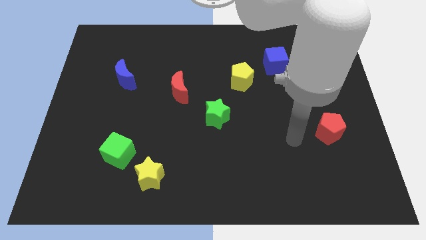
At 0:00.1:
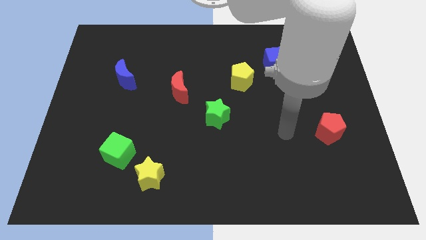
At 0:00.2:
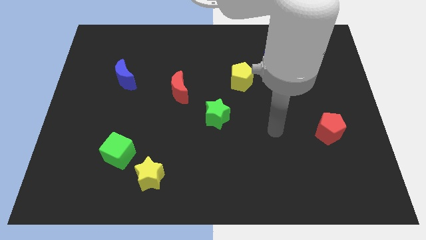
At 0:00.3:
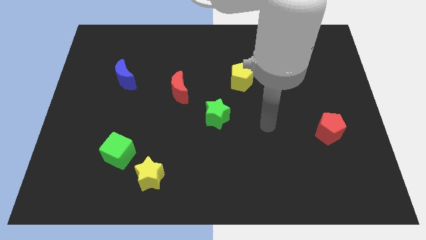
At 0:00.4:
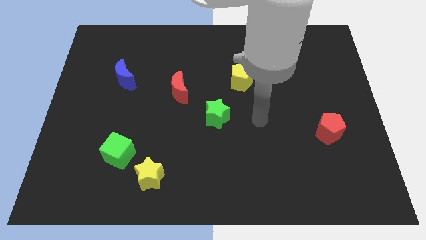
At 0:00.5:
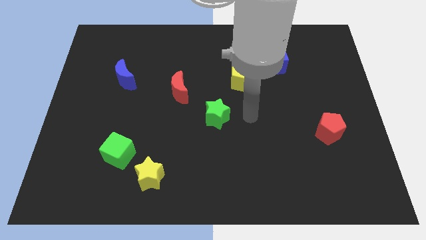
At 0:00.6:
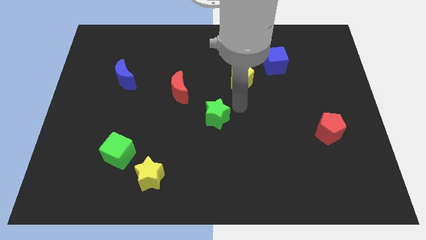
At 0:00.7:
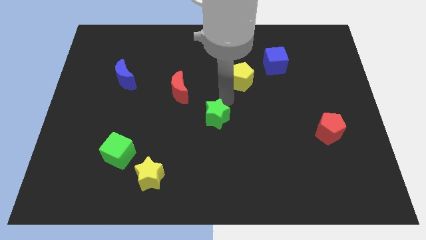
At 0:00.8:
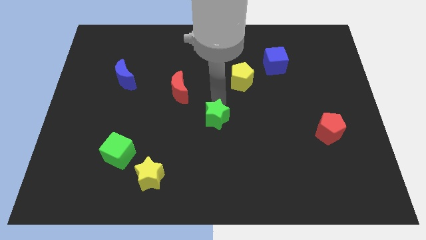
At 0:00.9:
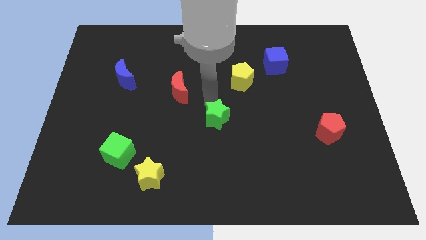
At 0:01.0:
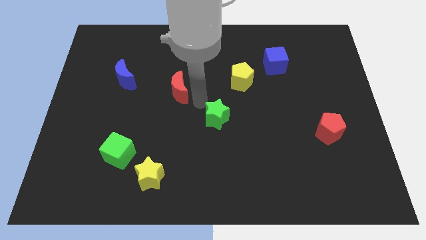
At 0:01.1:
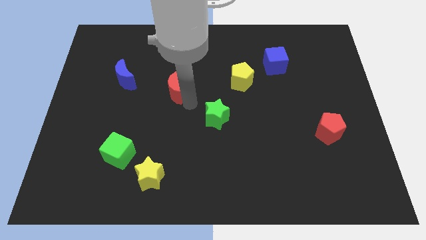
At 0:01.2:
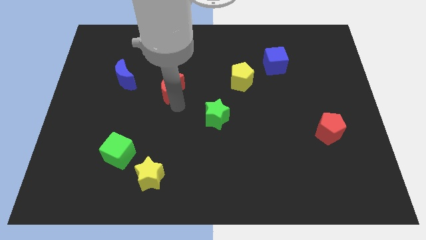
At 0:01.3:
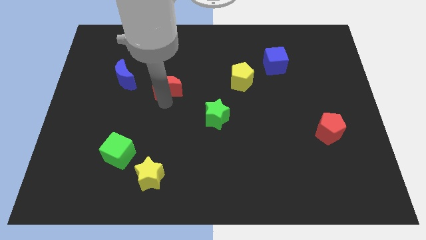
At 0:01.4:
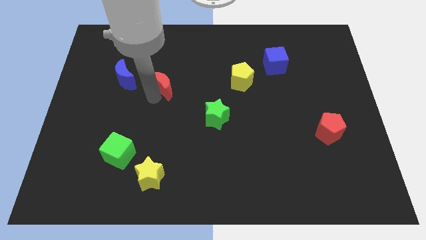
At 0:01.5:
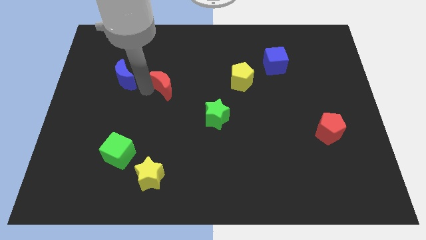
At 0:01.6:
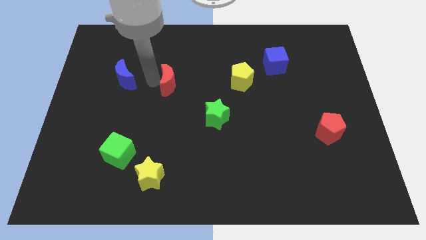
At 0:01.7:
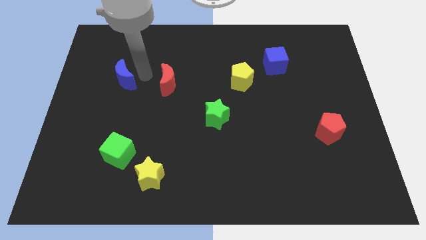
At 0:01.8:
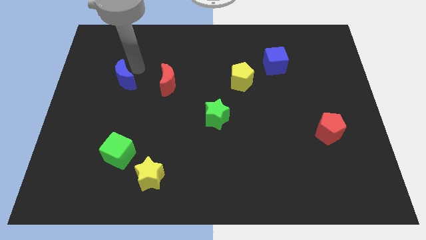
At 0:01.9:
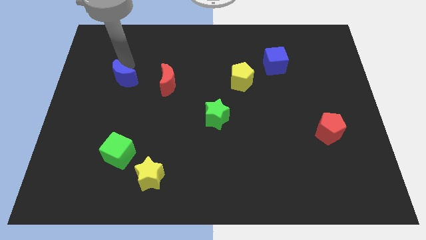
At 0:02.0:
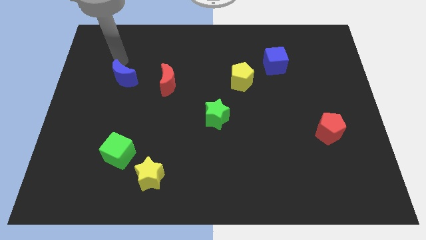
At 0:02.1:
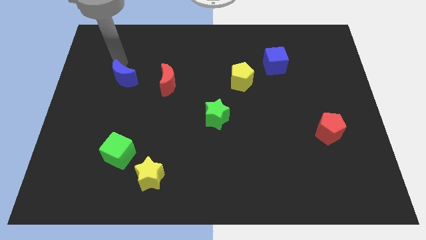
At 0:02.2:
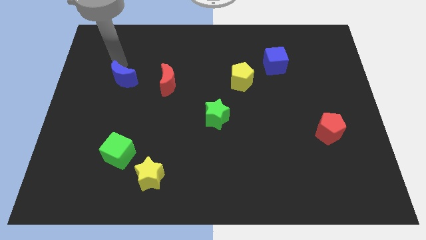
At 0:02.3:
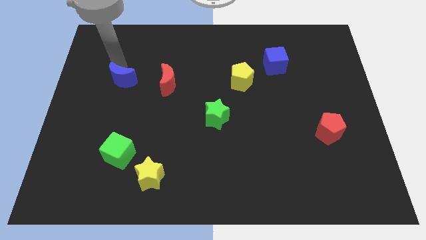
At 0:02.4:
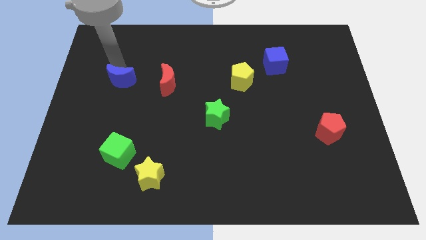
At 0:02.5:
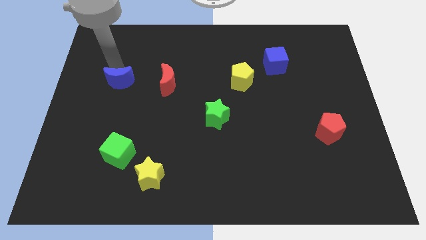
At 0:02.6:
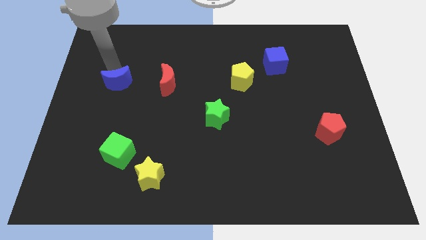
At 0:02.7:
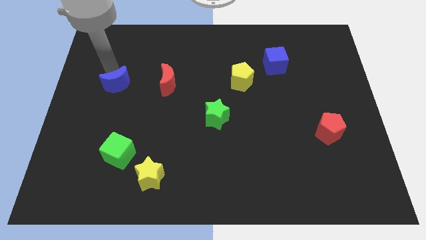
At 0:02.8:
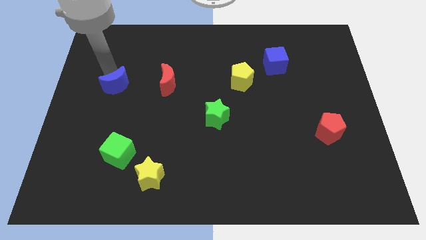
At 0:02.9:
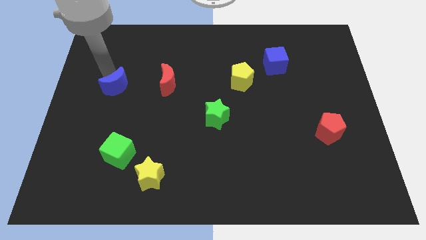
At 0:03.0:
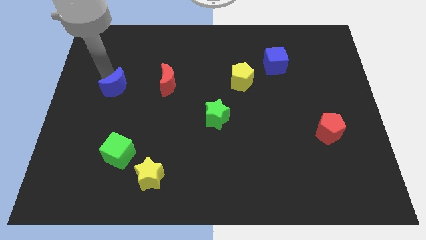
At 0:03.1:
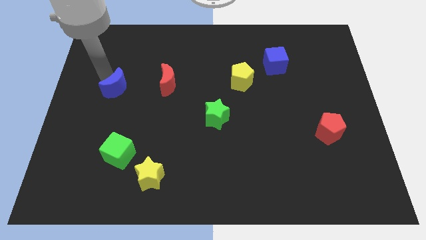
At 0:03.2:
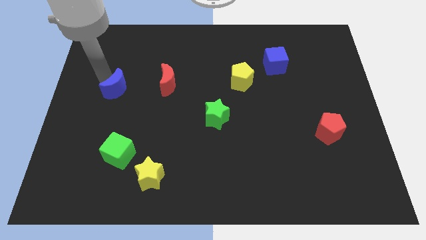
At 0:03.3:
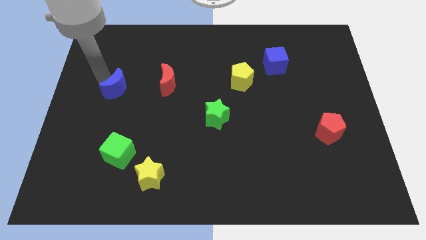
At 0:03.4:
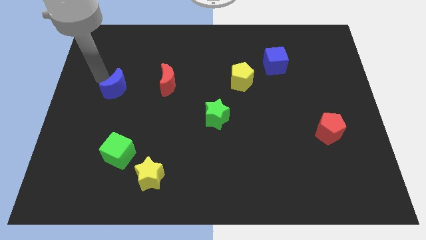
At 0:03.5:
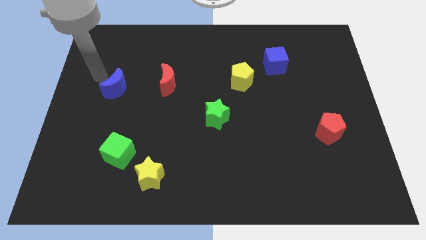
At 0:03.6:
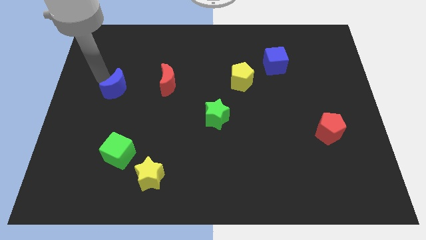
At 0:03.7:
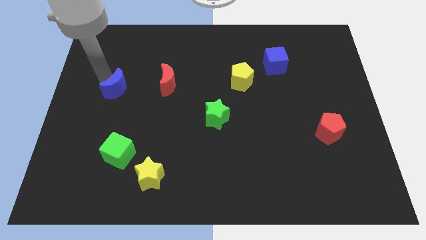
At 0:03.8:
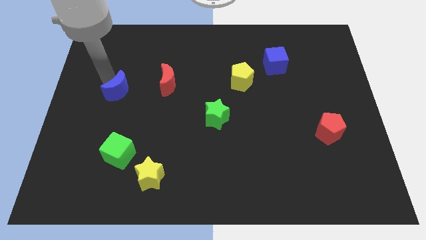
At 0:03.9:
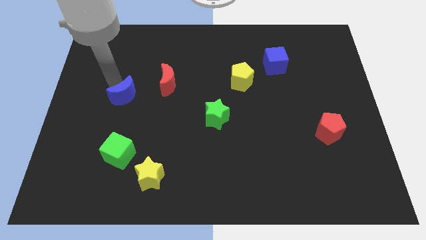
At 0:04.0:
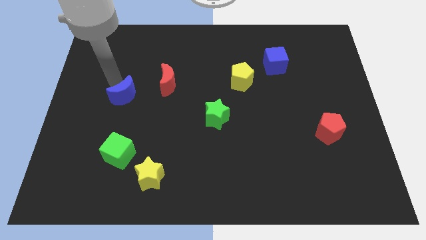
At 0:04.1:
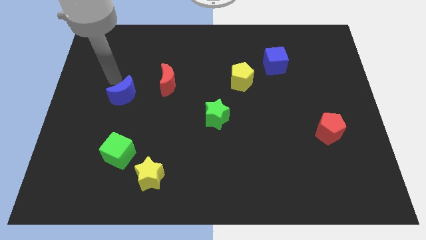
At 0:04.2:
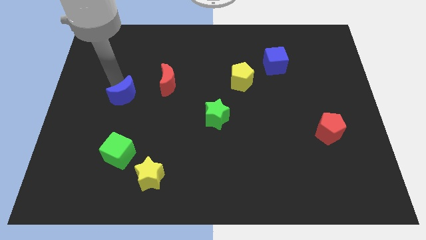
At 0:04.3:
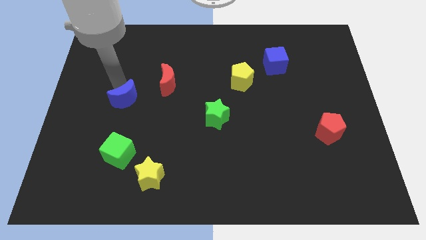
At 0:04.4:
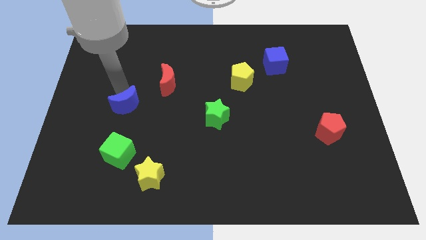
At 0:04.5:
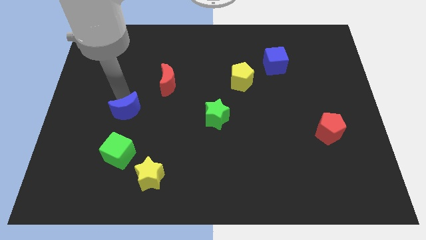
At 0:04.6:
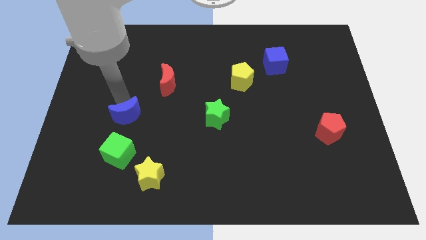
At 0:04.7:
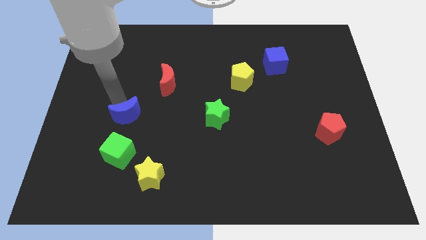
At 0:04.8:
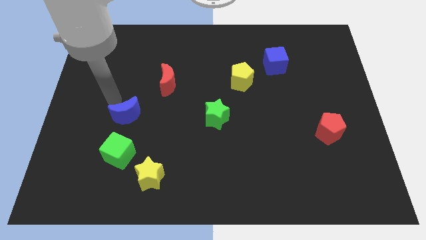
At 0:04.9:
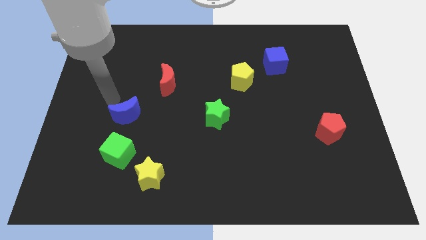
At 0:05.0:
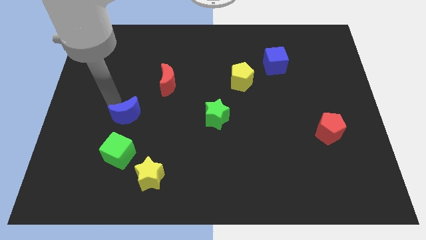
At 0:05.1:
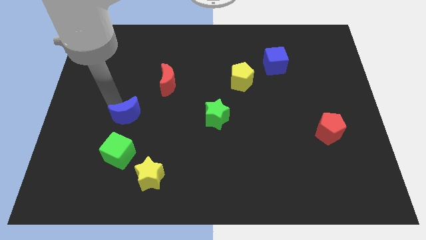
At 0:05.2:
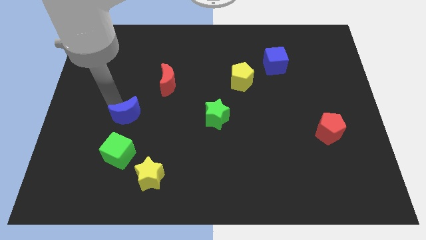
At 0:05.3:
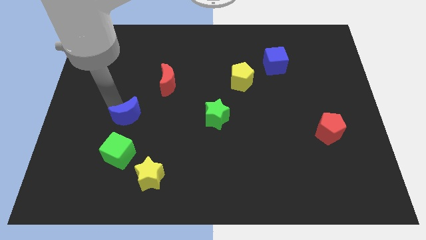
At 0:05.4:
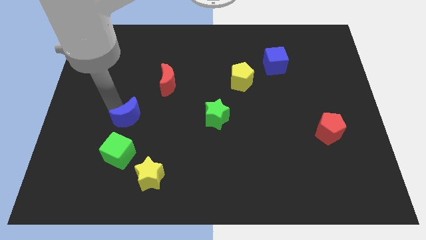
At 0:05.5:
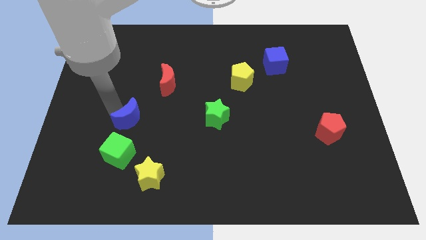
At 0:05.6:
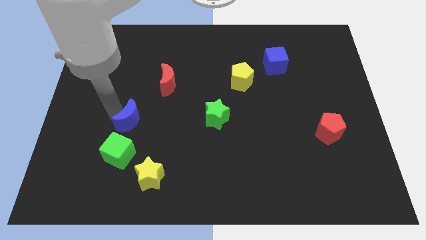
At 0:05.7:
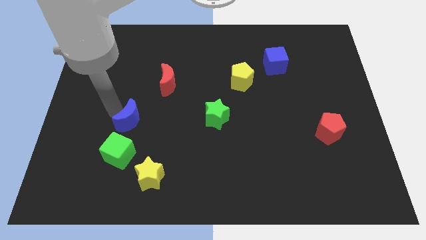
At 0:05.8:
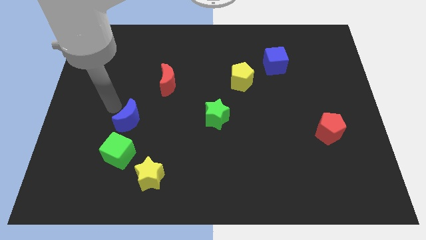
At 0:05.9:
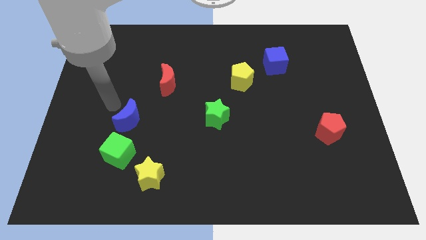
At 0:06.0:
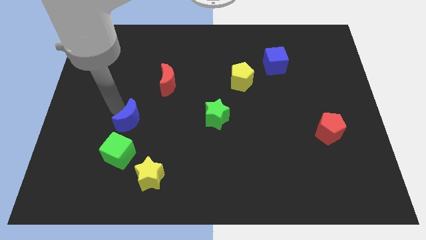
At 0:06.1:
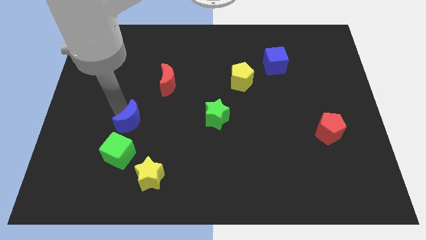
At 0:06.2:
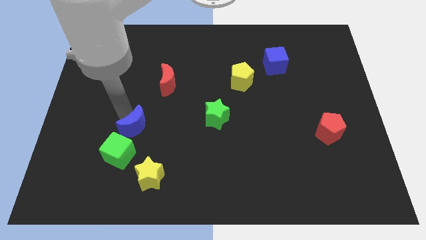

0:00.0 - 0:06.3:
move the blue moon diagonally up and to the right of the green cube
